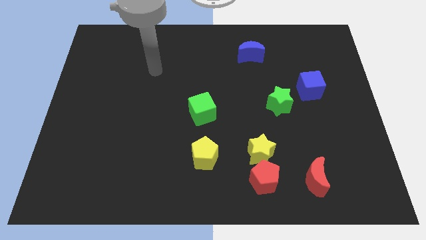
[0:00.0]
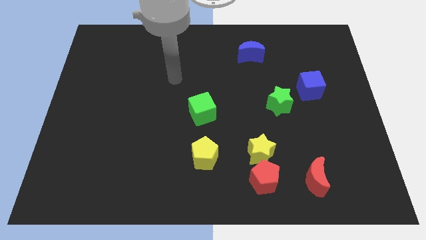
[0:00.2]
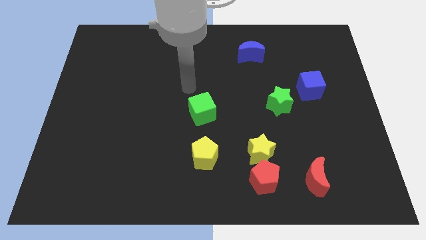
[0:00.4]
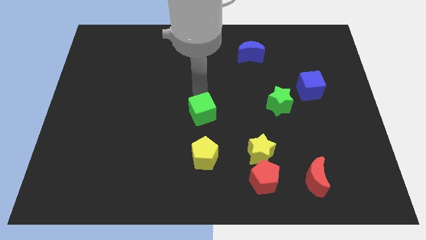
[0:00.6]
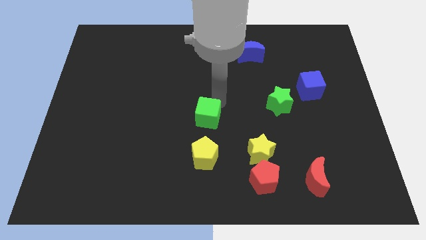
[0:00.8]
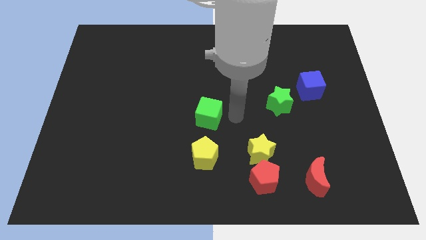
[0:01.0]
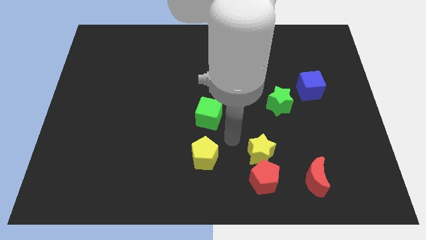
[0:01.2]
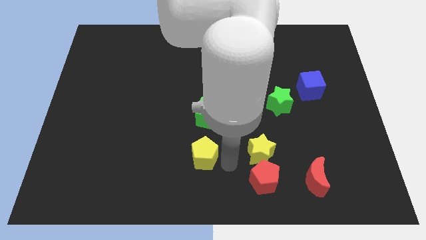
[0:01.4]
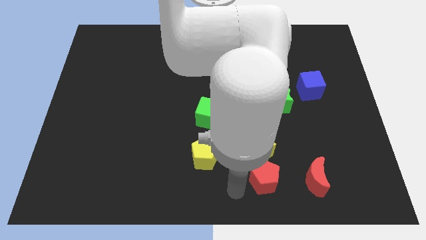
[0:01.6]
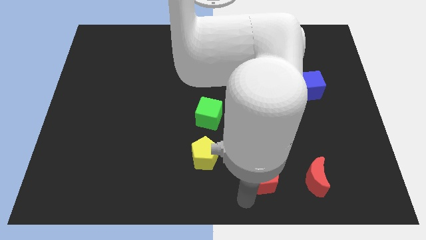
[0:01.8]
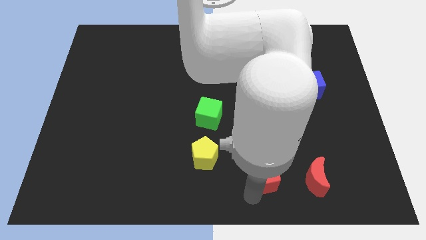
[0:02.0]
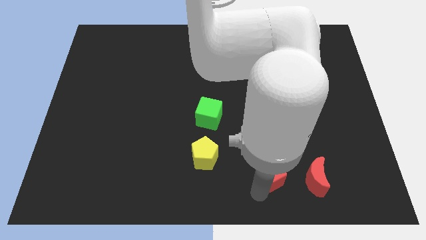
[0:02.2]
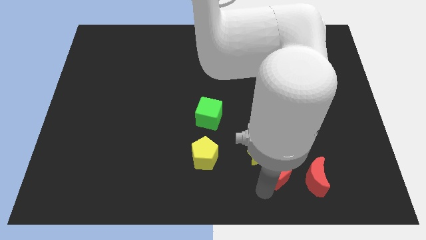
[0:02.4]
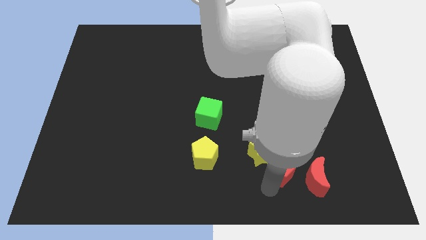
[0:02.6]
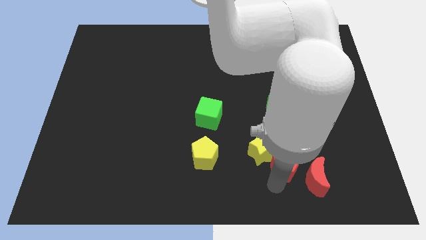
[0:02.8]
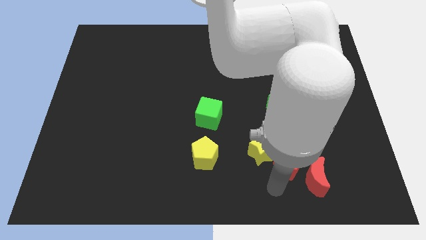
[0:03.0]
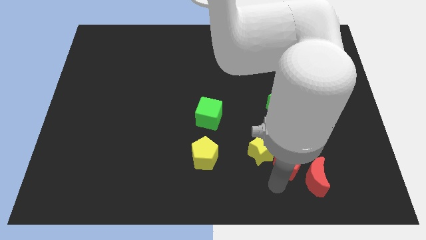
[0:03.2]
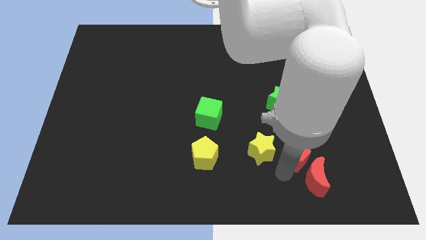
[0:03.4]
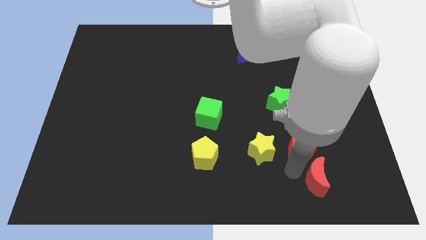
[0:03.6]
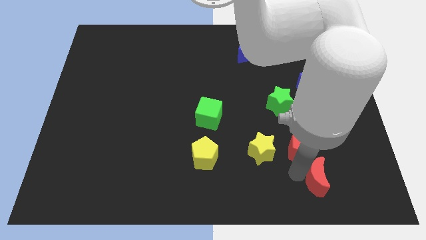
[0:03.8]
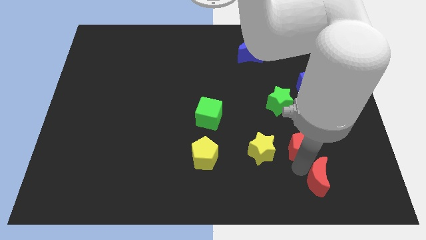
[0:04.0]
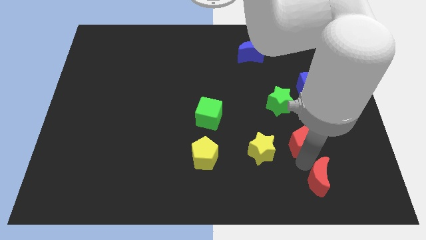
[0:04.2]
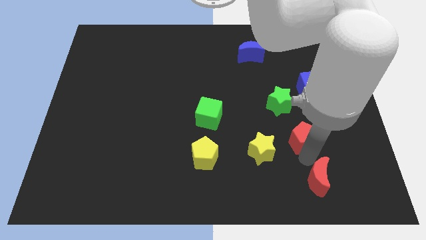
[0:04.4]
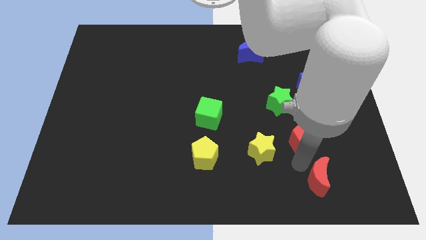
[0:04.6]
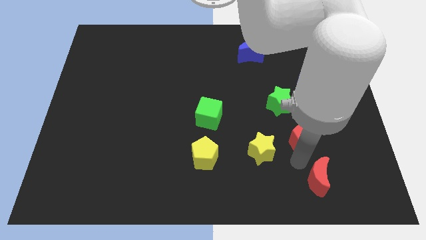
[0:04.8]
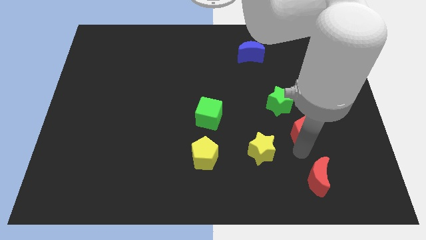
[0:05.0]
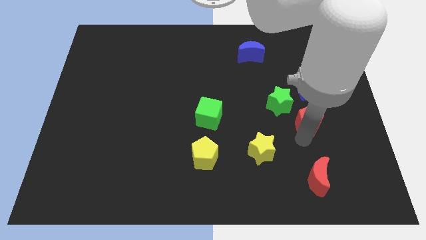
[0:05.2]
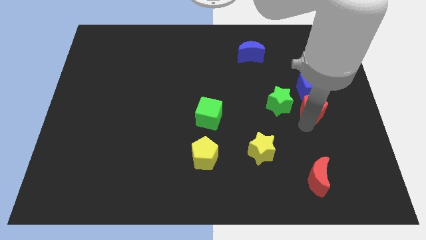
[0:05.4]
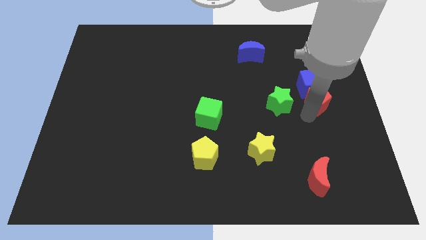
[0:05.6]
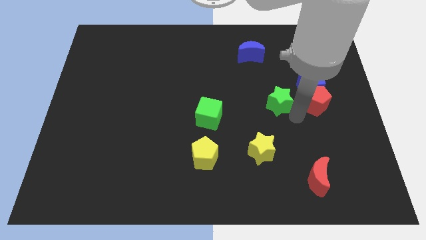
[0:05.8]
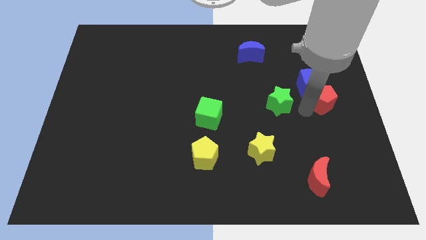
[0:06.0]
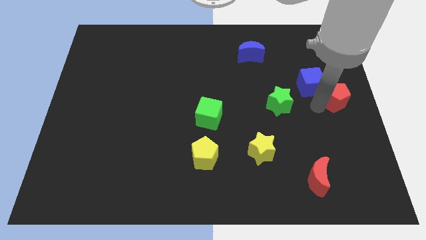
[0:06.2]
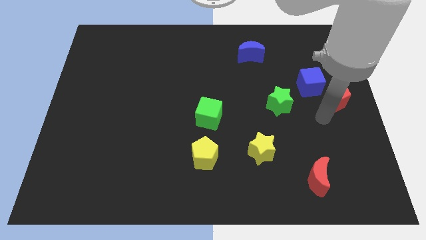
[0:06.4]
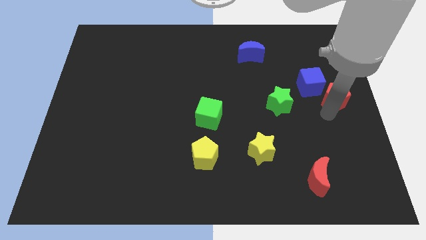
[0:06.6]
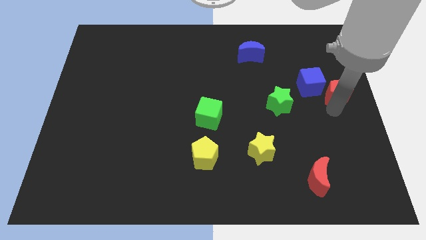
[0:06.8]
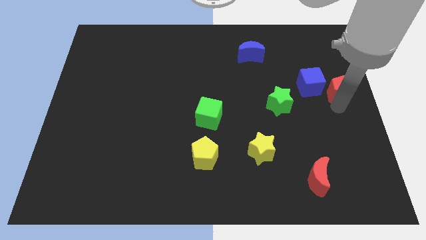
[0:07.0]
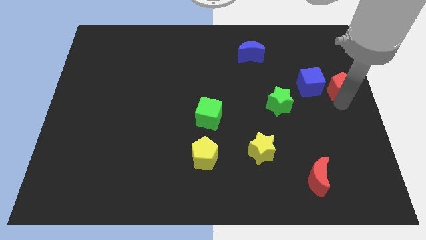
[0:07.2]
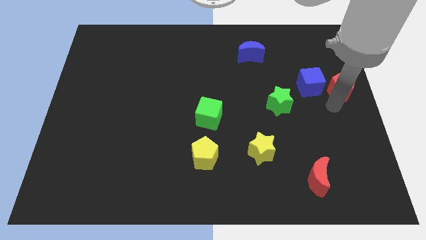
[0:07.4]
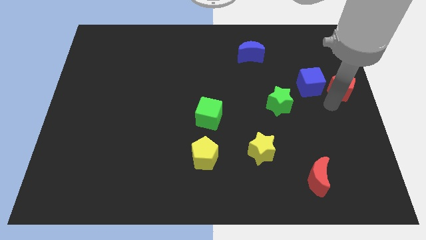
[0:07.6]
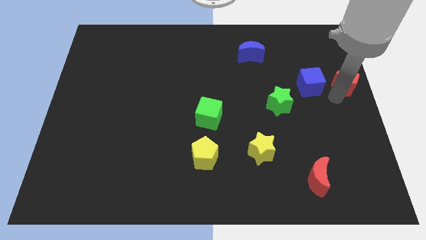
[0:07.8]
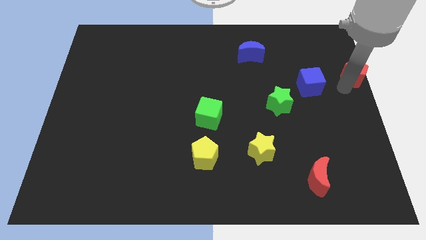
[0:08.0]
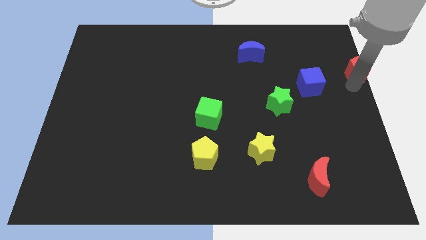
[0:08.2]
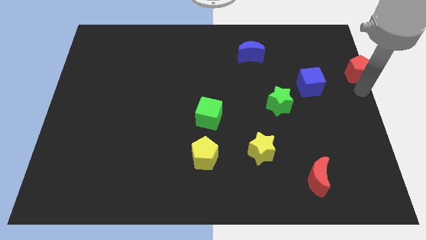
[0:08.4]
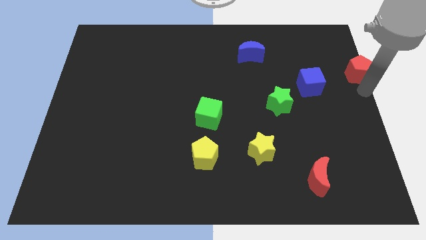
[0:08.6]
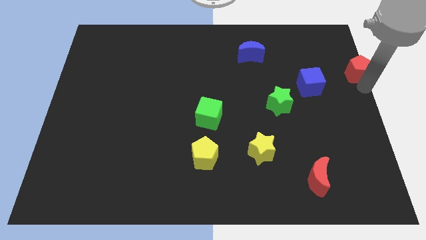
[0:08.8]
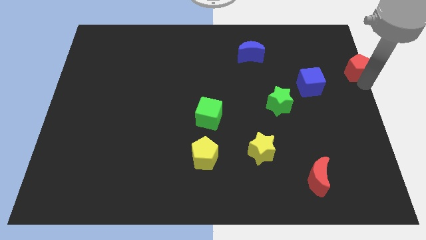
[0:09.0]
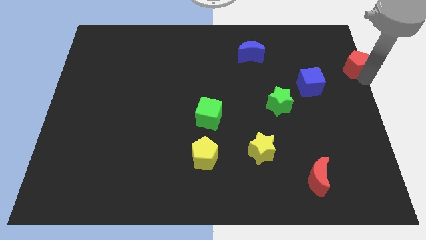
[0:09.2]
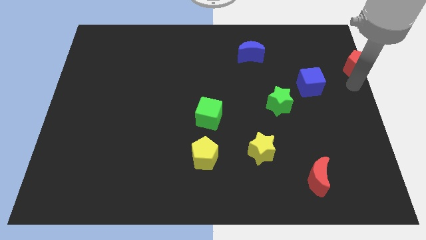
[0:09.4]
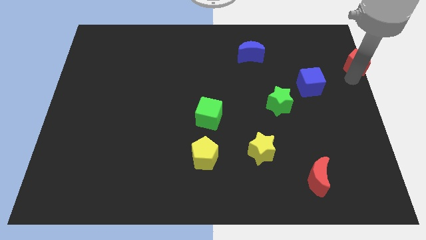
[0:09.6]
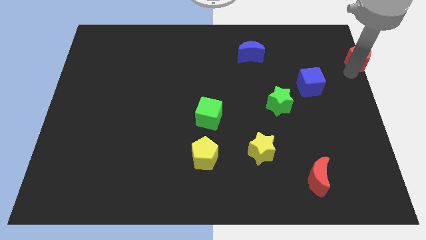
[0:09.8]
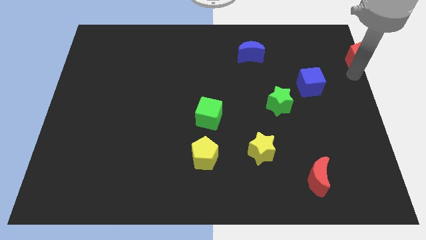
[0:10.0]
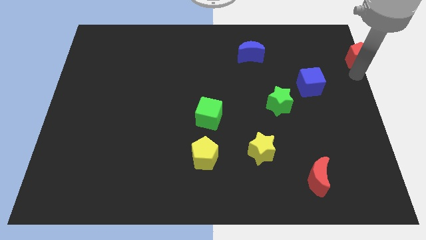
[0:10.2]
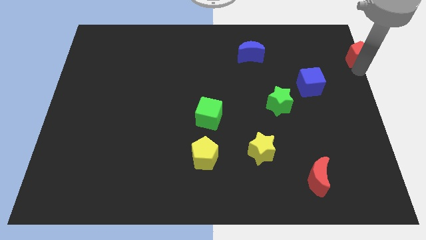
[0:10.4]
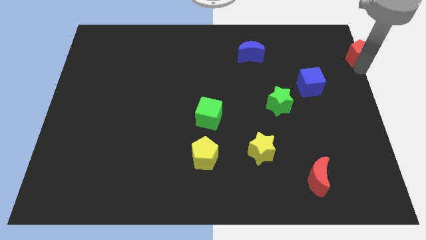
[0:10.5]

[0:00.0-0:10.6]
push the red pentagon to the top right

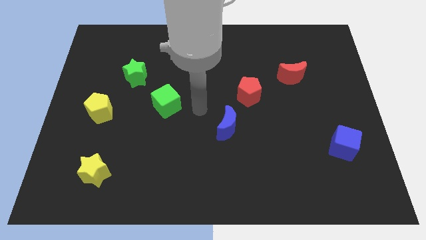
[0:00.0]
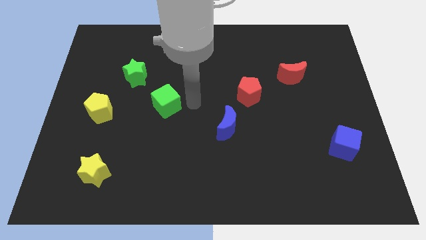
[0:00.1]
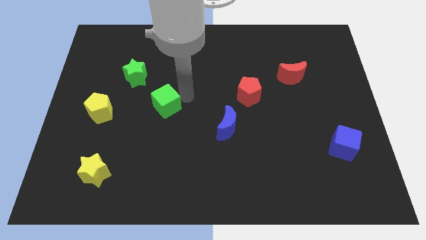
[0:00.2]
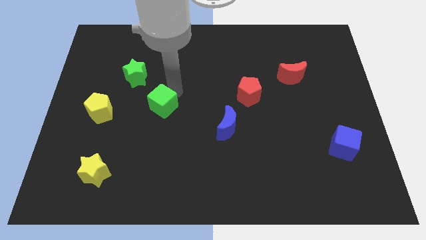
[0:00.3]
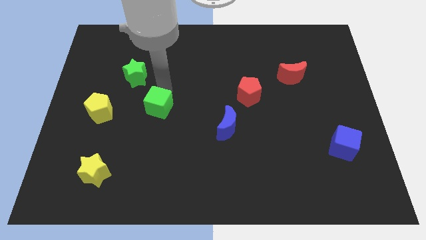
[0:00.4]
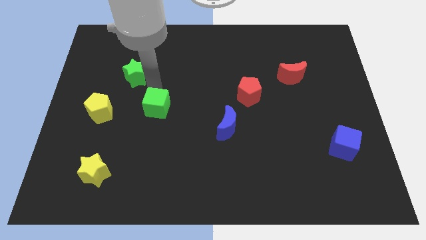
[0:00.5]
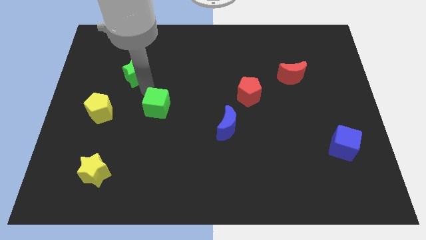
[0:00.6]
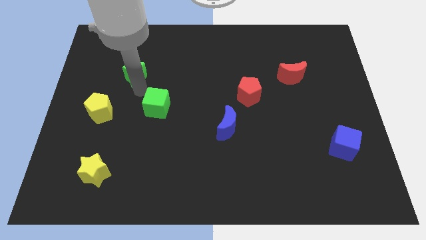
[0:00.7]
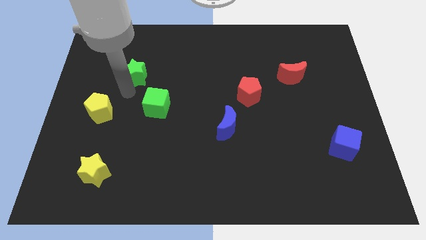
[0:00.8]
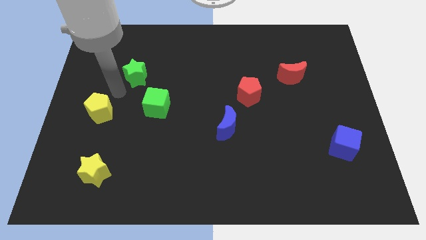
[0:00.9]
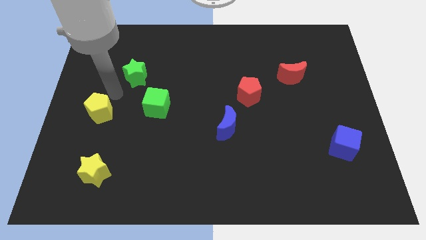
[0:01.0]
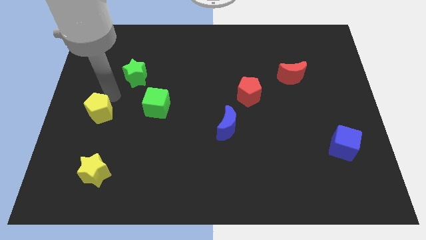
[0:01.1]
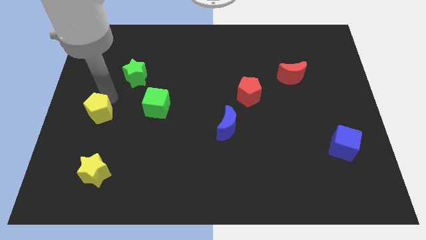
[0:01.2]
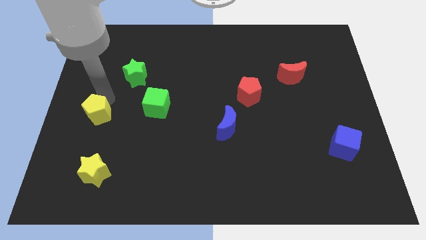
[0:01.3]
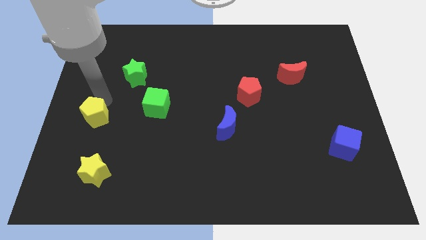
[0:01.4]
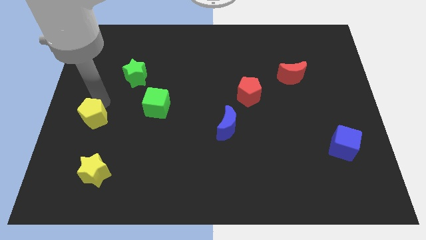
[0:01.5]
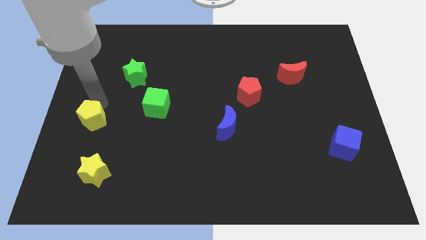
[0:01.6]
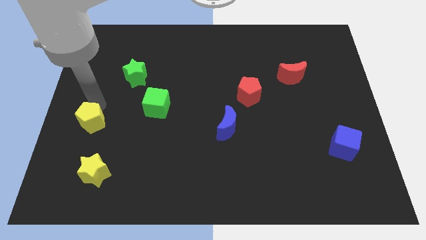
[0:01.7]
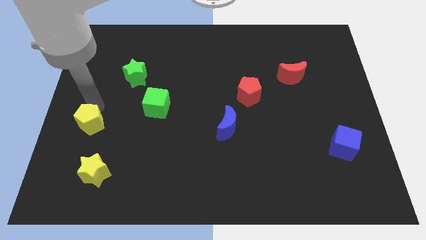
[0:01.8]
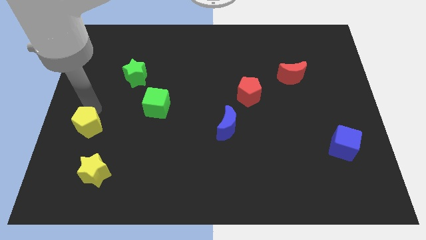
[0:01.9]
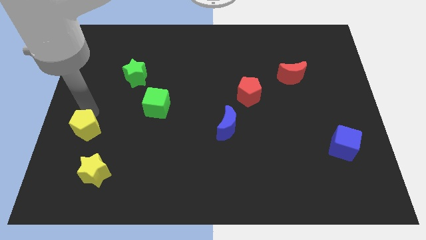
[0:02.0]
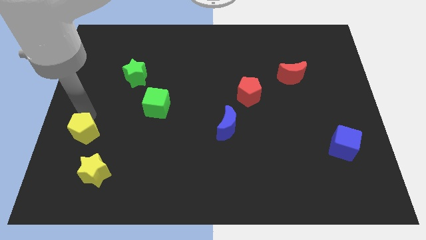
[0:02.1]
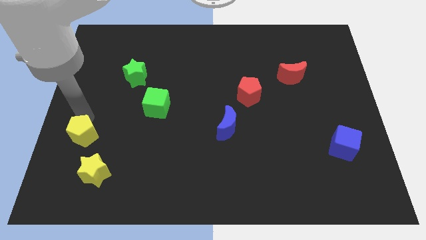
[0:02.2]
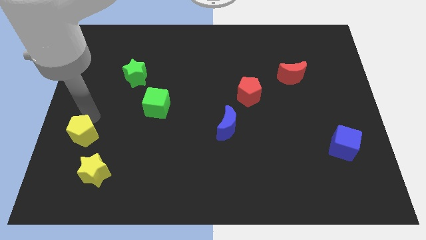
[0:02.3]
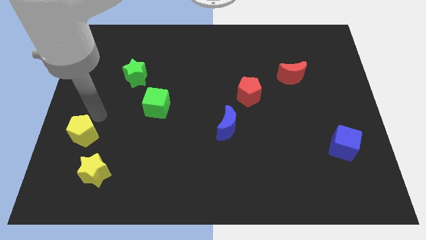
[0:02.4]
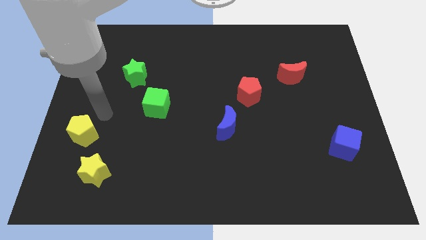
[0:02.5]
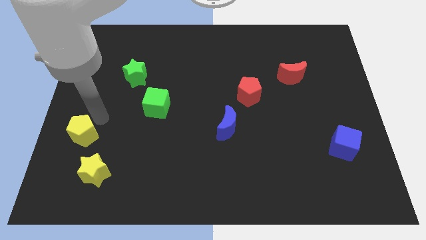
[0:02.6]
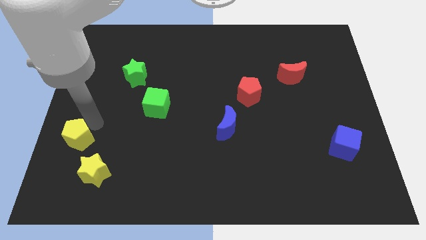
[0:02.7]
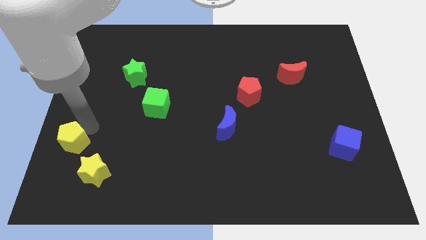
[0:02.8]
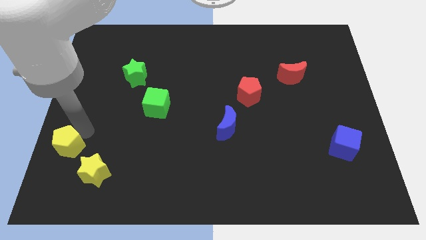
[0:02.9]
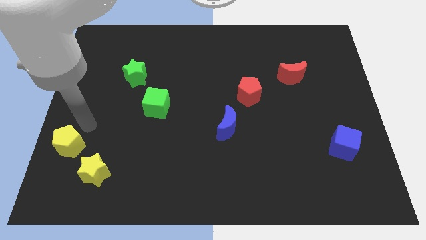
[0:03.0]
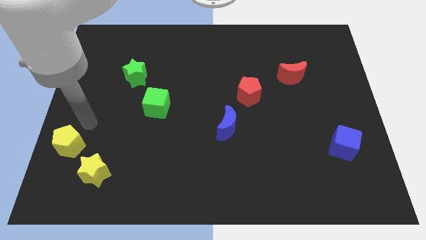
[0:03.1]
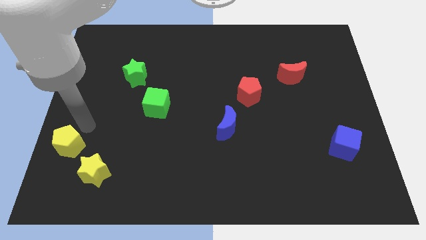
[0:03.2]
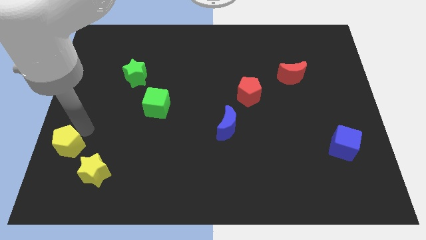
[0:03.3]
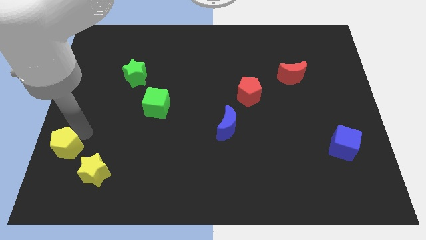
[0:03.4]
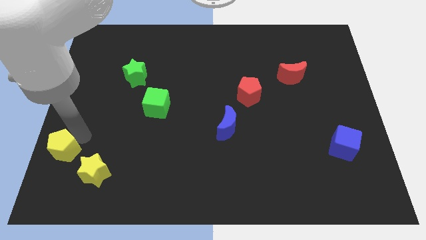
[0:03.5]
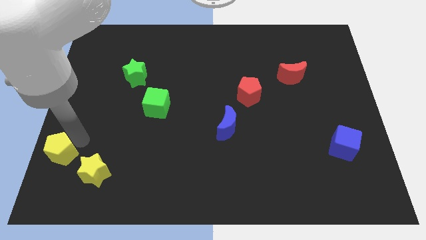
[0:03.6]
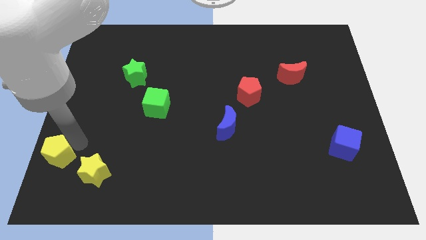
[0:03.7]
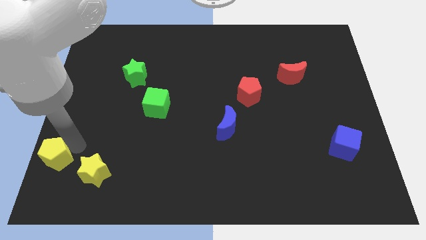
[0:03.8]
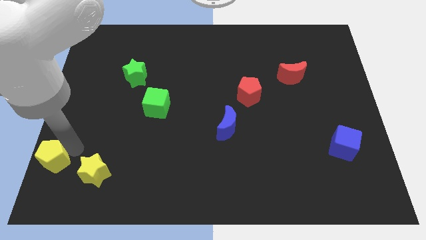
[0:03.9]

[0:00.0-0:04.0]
push the yellow pentagon to the bottom left
